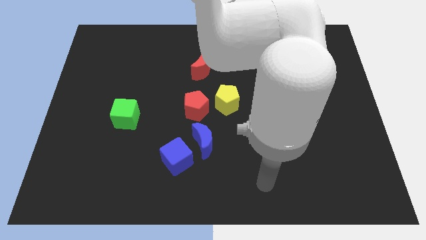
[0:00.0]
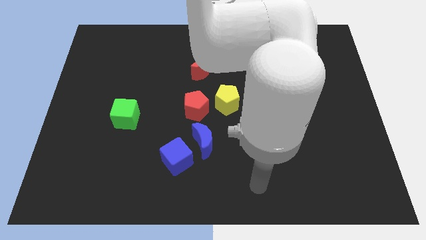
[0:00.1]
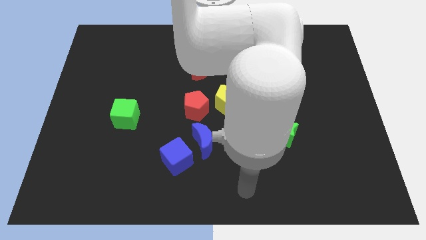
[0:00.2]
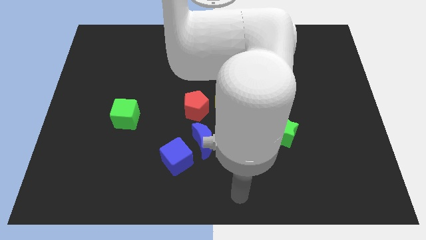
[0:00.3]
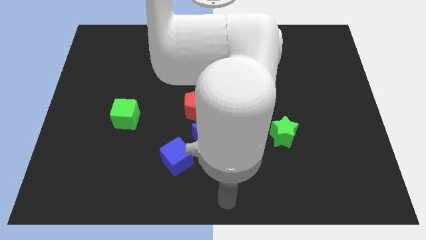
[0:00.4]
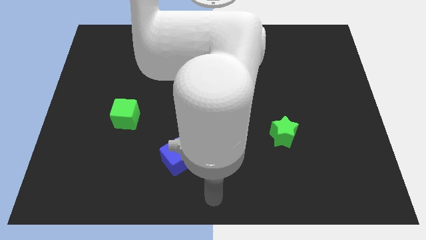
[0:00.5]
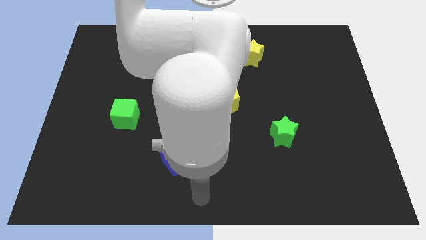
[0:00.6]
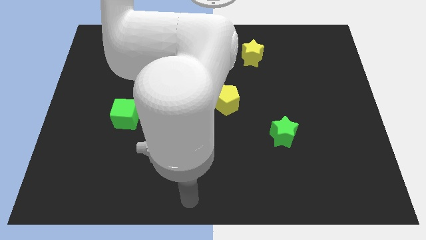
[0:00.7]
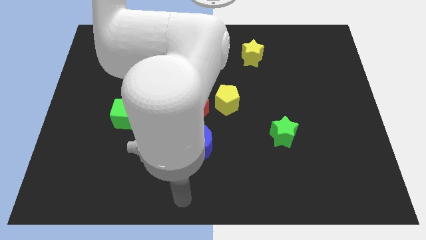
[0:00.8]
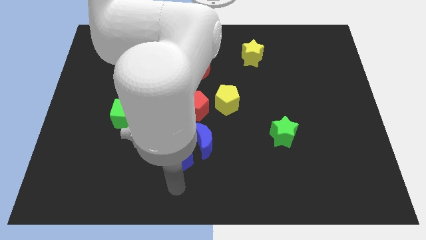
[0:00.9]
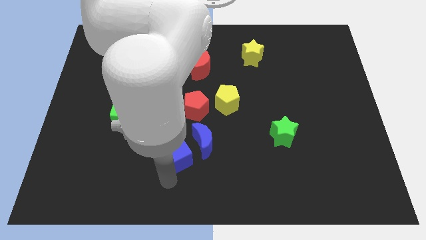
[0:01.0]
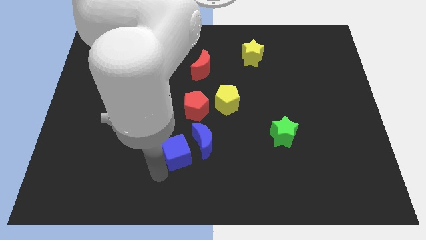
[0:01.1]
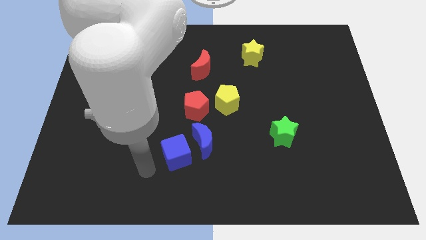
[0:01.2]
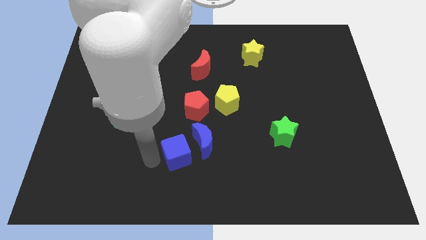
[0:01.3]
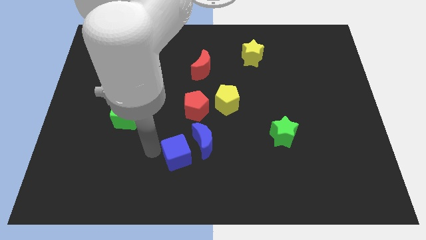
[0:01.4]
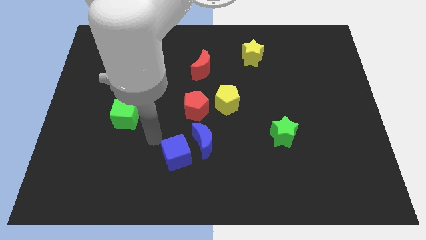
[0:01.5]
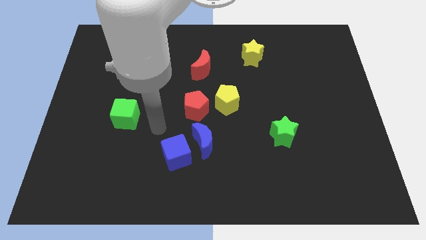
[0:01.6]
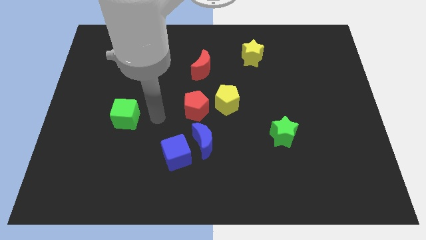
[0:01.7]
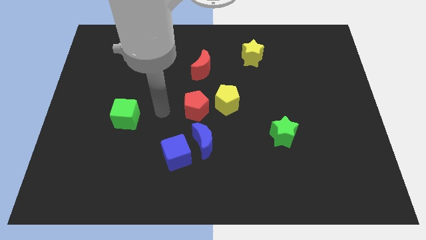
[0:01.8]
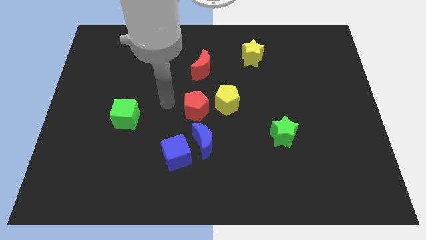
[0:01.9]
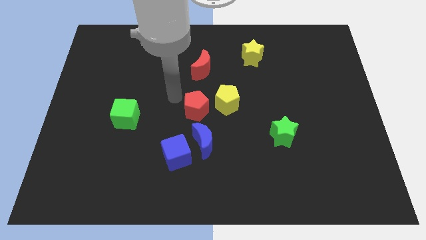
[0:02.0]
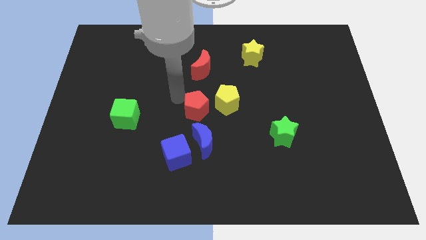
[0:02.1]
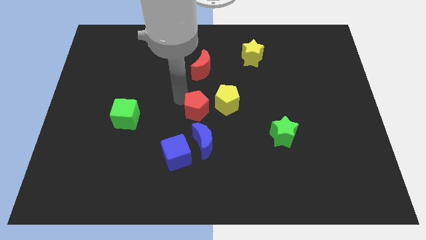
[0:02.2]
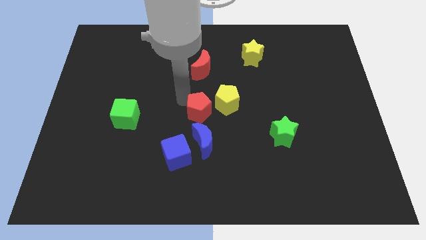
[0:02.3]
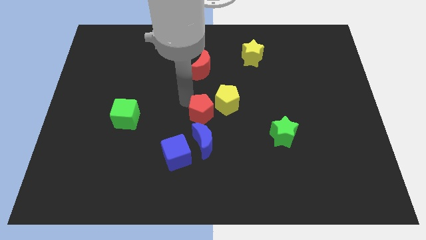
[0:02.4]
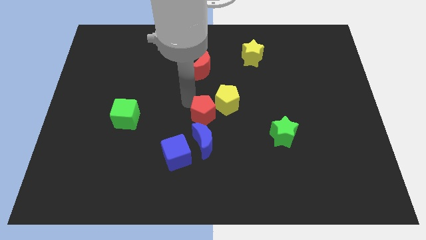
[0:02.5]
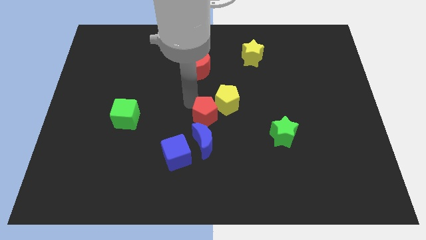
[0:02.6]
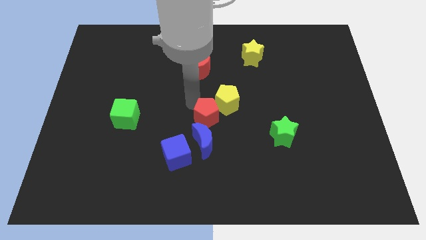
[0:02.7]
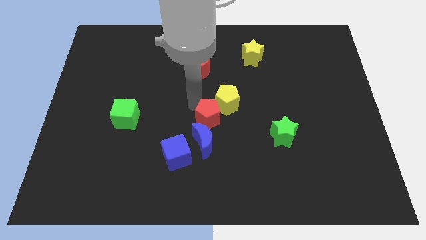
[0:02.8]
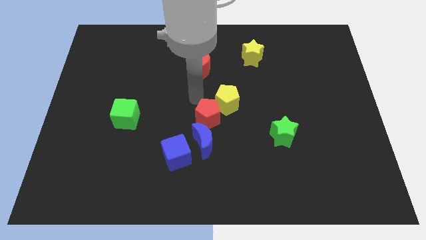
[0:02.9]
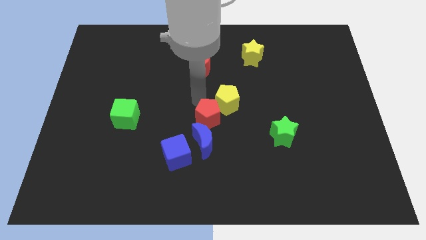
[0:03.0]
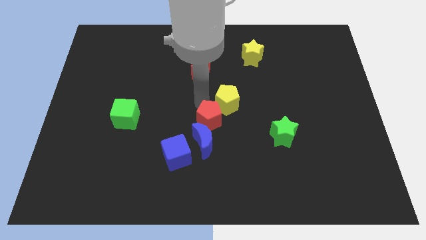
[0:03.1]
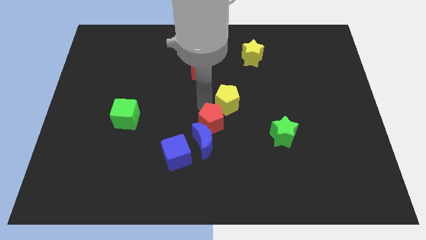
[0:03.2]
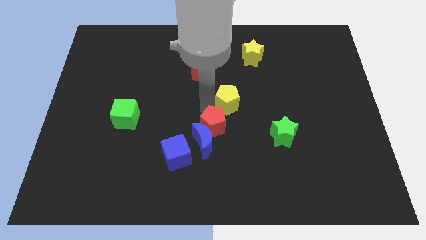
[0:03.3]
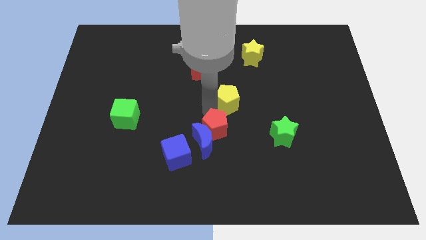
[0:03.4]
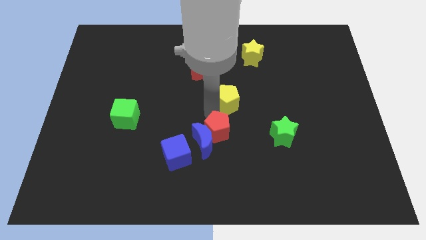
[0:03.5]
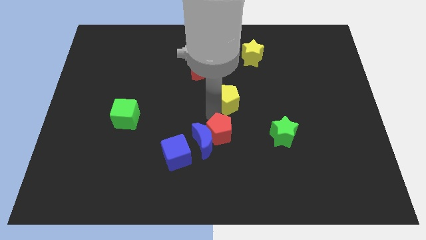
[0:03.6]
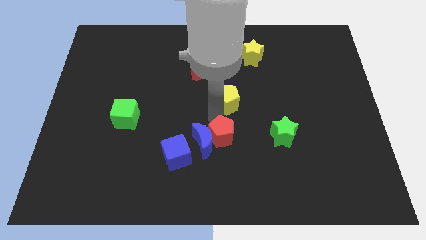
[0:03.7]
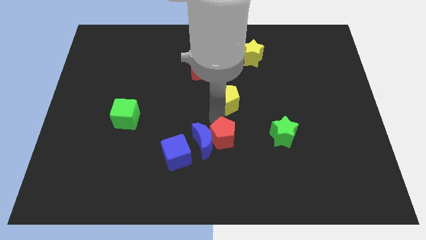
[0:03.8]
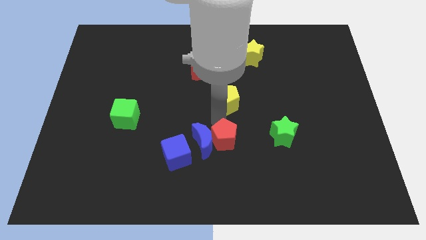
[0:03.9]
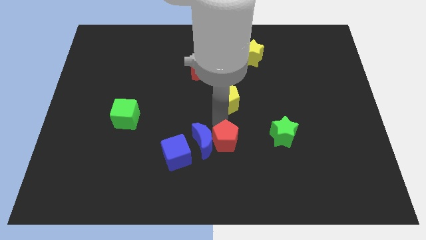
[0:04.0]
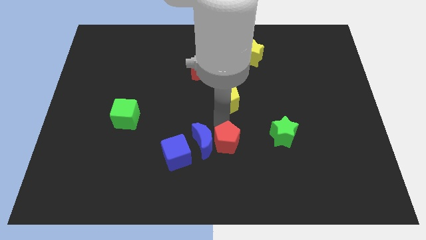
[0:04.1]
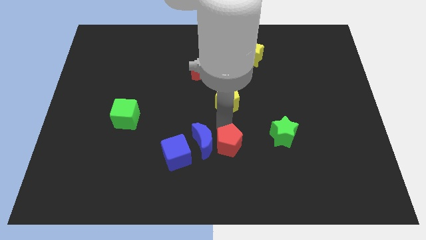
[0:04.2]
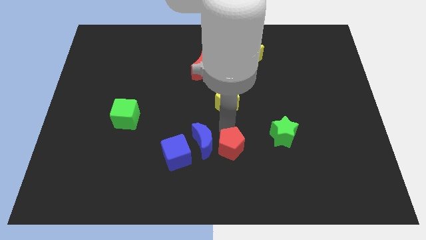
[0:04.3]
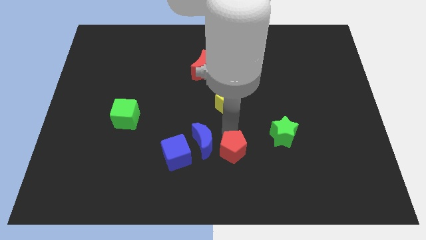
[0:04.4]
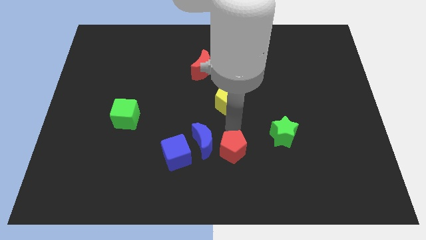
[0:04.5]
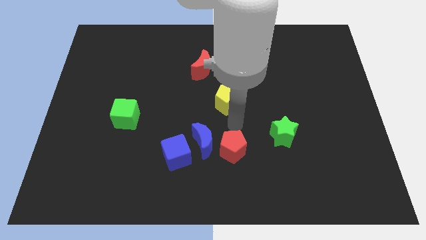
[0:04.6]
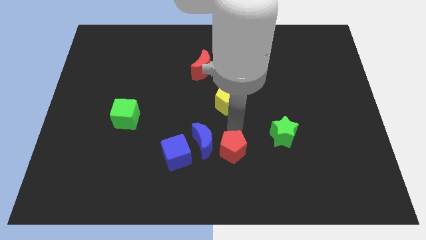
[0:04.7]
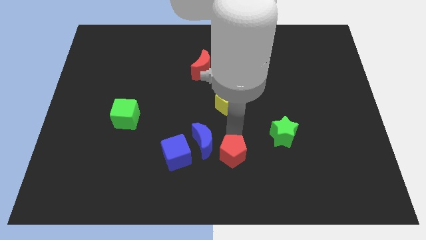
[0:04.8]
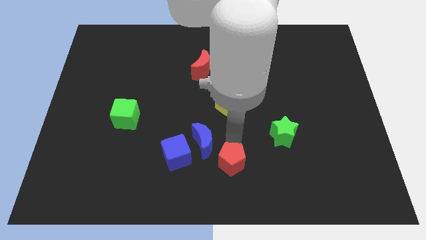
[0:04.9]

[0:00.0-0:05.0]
slide the red pentagon to the bottom

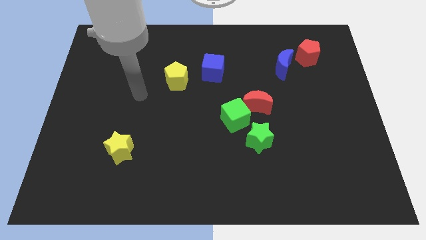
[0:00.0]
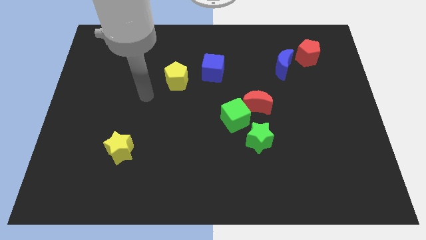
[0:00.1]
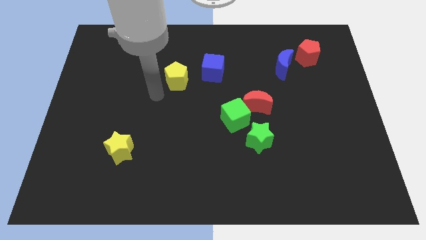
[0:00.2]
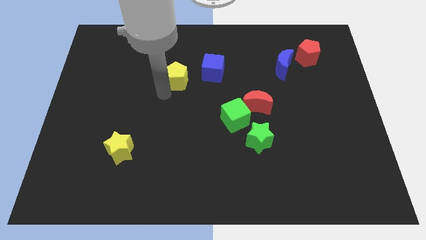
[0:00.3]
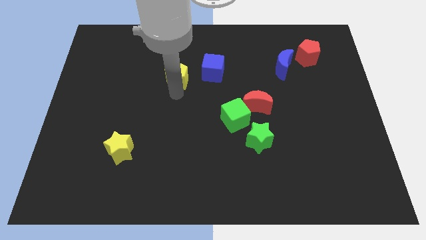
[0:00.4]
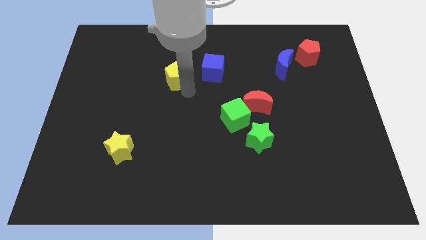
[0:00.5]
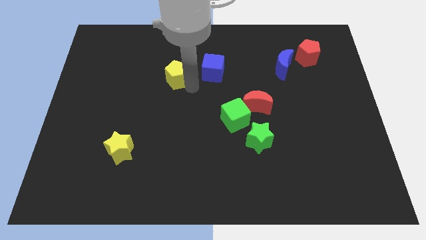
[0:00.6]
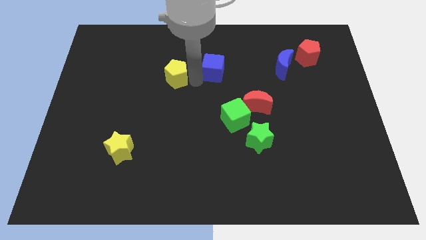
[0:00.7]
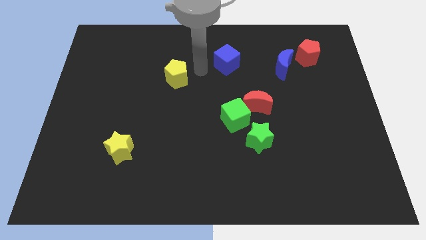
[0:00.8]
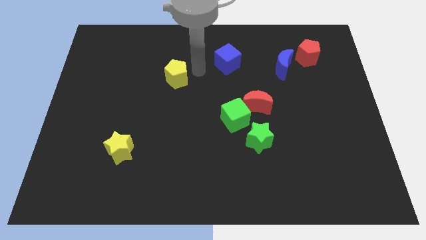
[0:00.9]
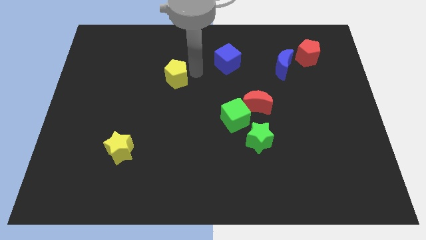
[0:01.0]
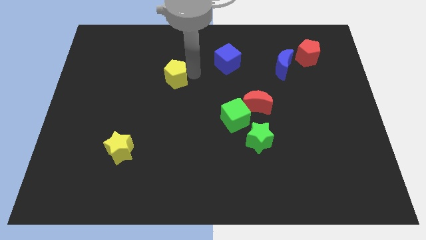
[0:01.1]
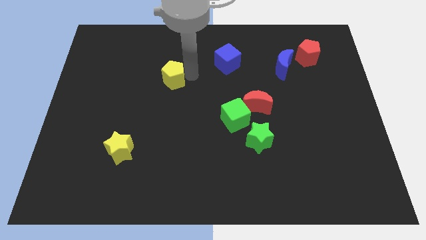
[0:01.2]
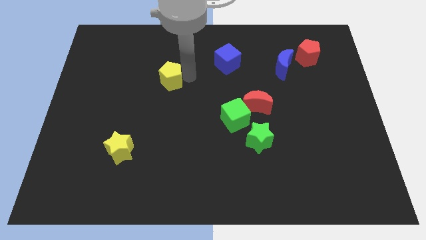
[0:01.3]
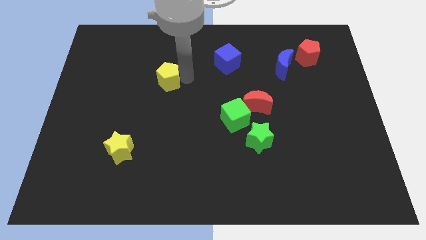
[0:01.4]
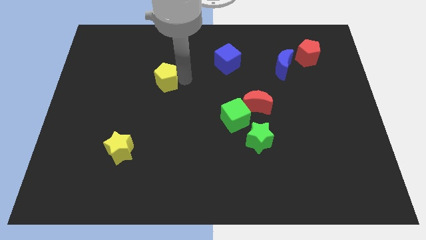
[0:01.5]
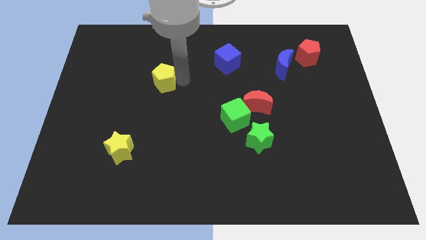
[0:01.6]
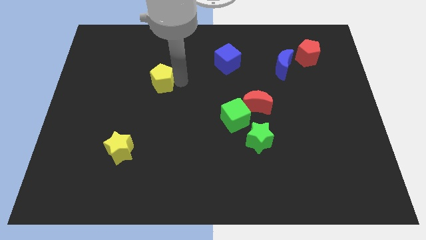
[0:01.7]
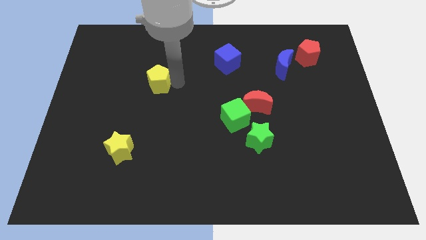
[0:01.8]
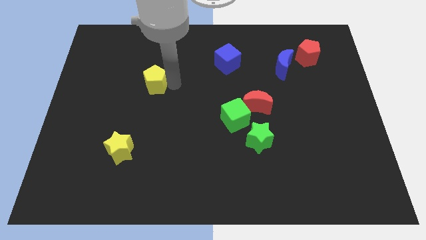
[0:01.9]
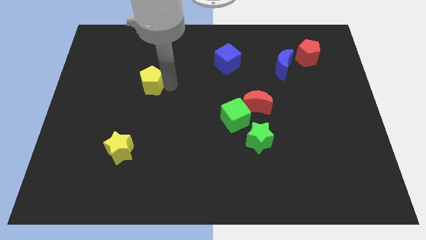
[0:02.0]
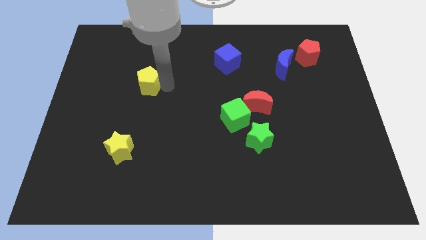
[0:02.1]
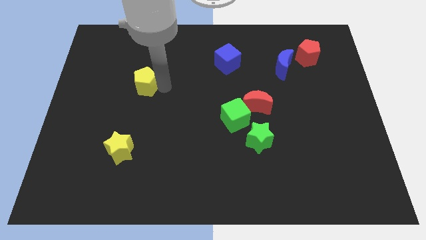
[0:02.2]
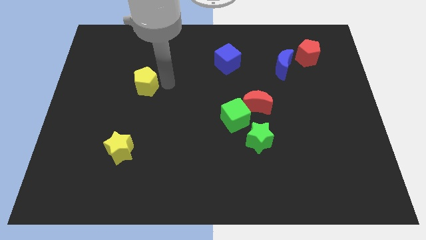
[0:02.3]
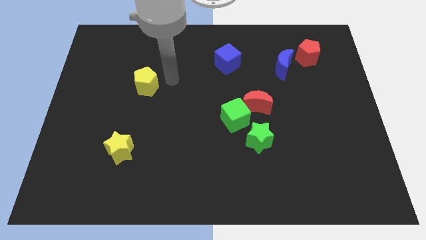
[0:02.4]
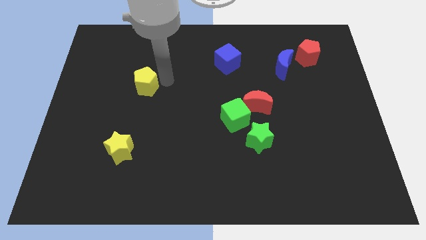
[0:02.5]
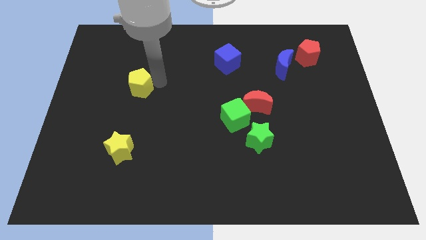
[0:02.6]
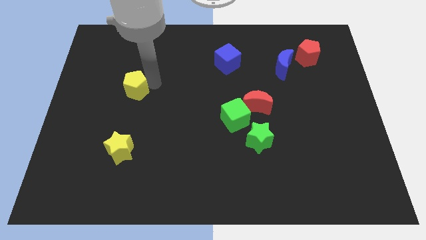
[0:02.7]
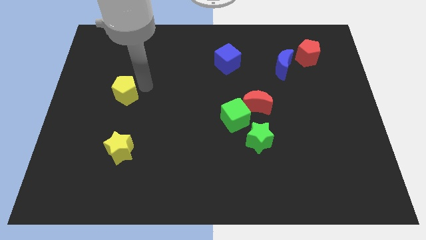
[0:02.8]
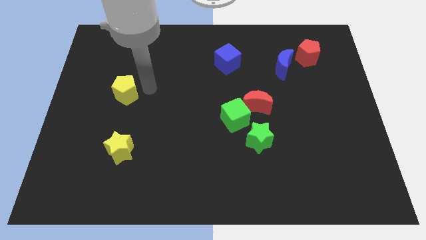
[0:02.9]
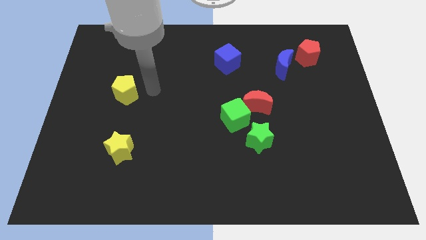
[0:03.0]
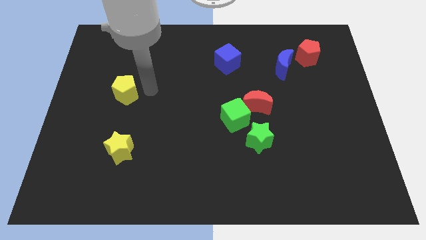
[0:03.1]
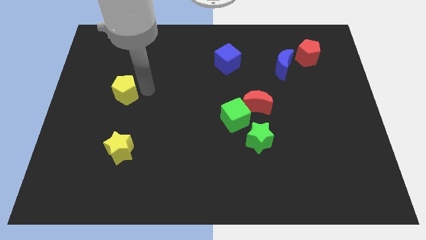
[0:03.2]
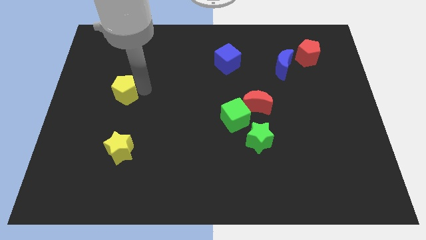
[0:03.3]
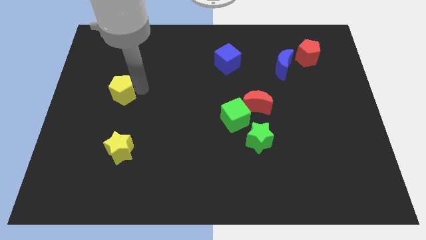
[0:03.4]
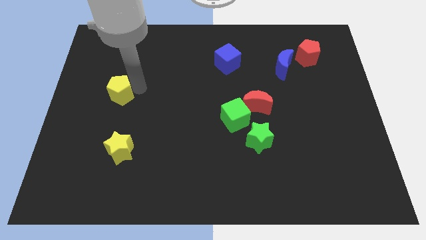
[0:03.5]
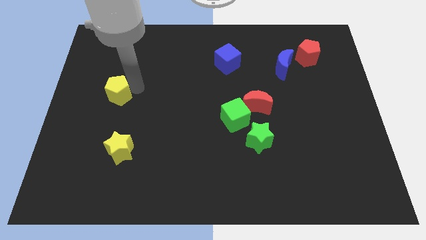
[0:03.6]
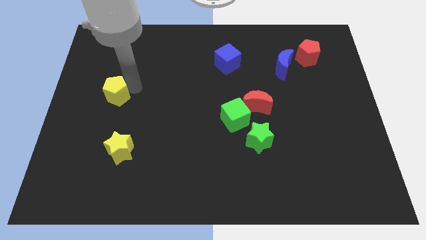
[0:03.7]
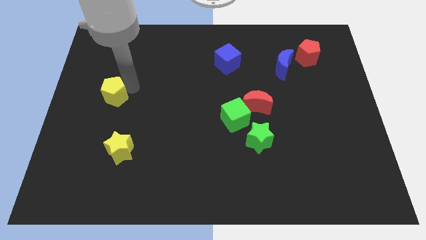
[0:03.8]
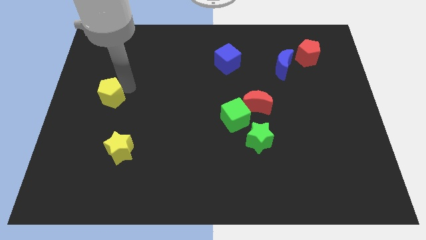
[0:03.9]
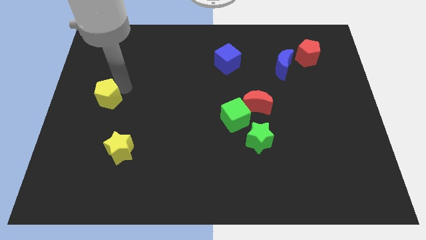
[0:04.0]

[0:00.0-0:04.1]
put the yellow pentagon to the left side of the board
